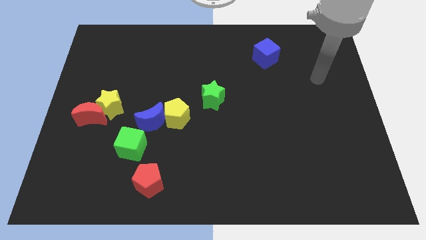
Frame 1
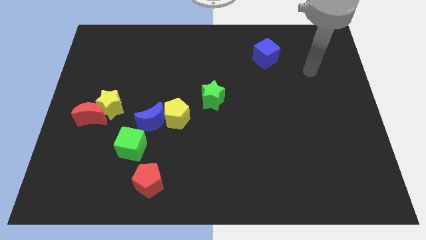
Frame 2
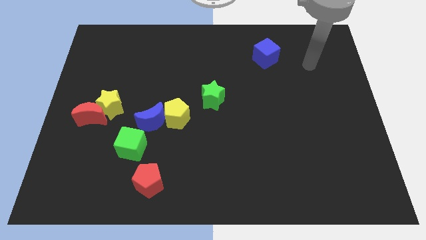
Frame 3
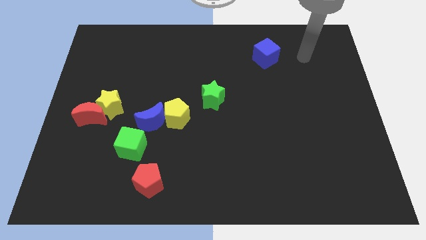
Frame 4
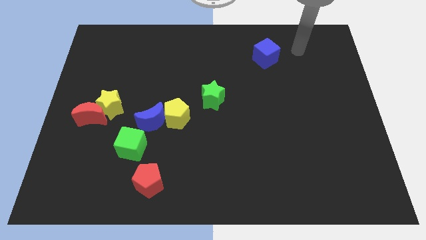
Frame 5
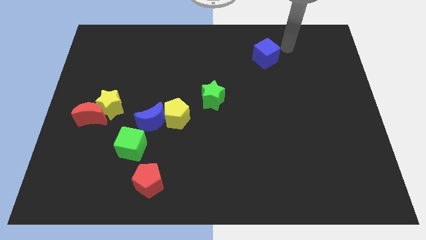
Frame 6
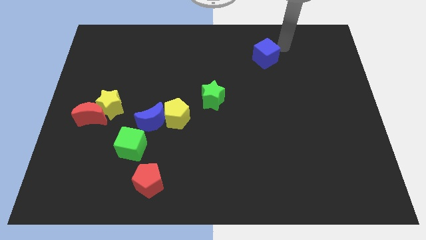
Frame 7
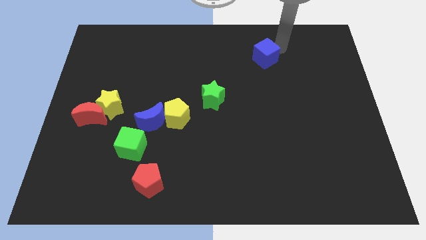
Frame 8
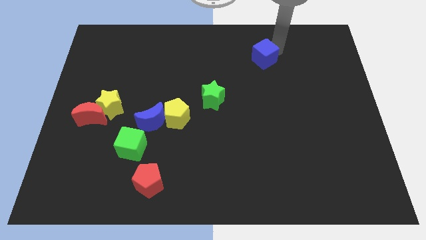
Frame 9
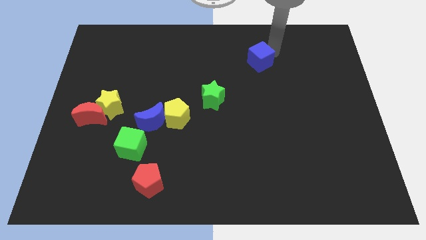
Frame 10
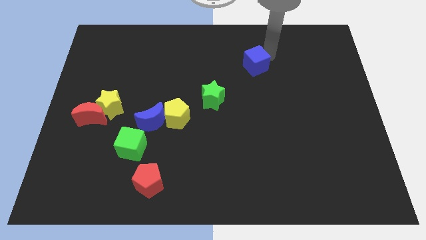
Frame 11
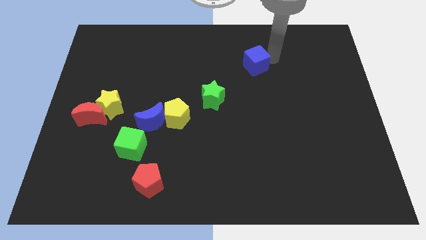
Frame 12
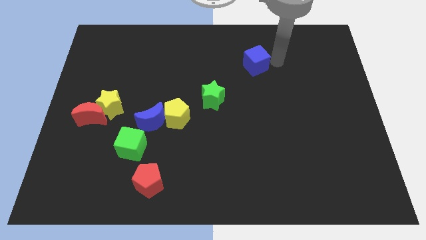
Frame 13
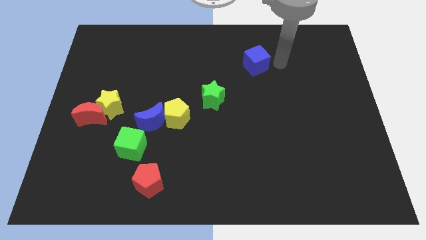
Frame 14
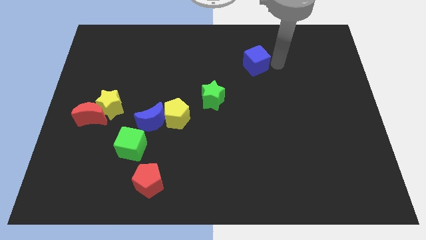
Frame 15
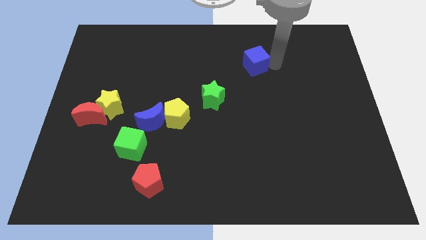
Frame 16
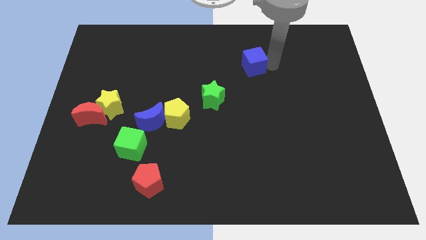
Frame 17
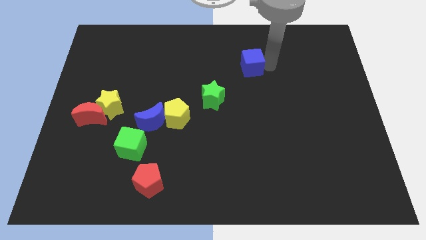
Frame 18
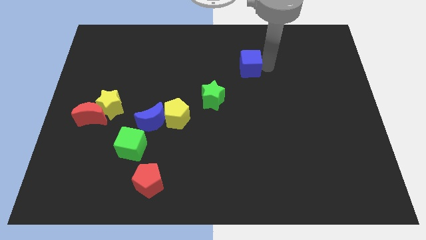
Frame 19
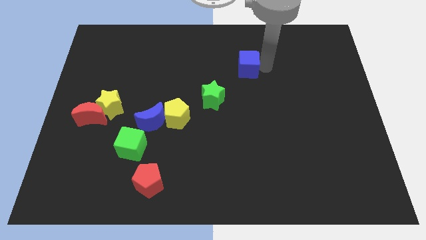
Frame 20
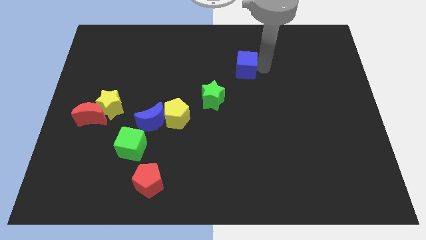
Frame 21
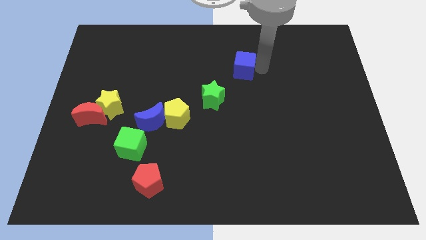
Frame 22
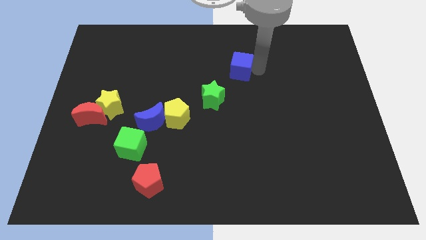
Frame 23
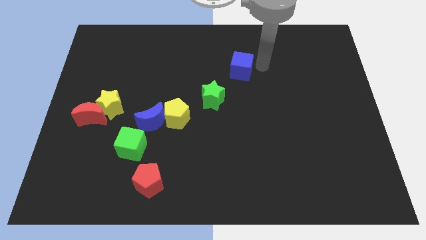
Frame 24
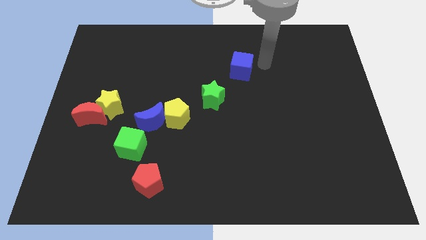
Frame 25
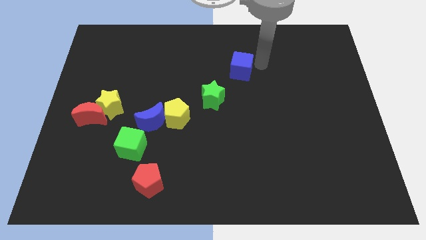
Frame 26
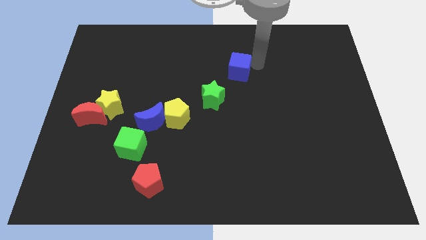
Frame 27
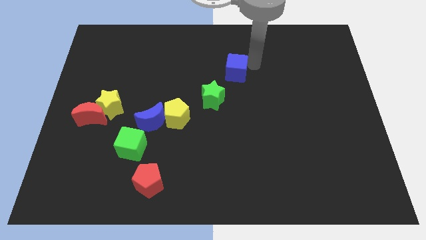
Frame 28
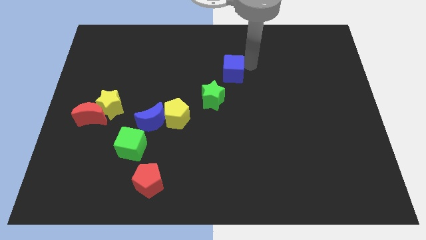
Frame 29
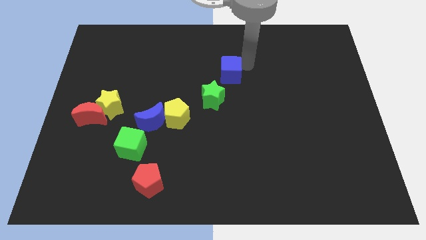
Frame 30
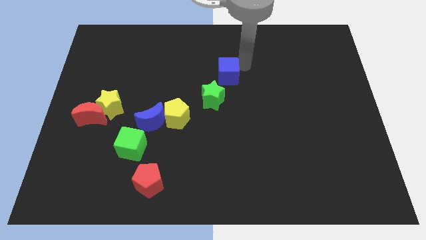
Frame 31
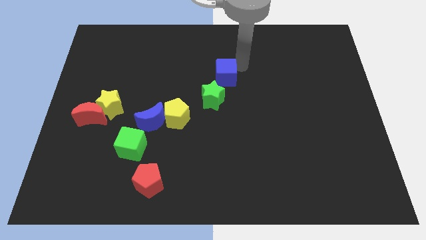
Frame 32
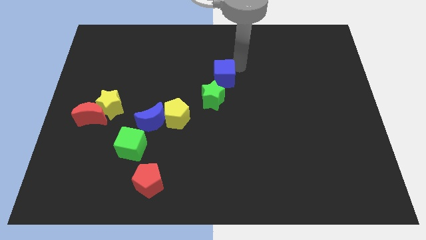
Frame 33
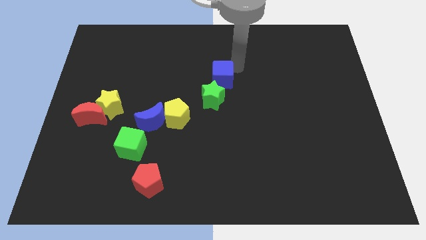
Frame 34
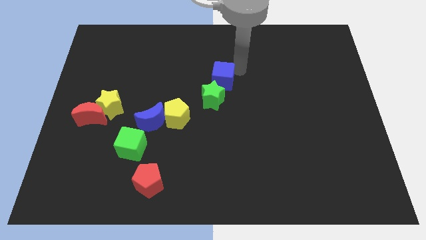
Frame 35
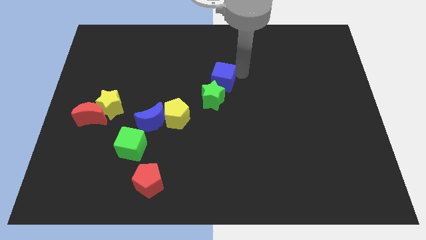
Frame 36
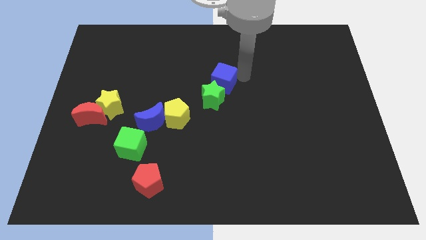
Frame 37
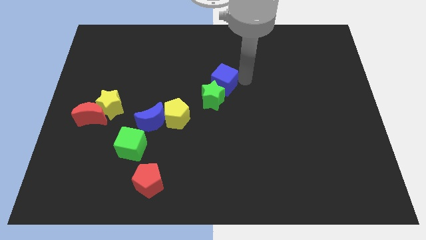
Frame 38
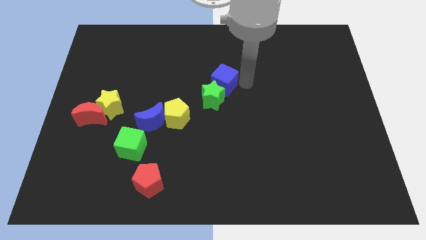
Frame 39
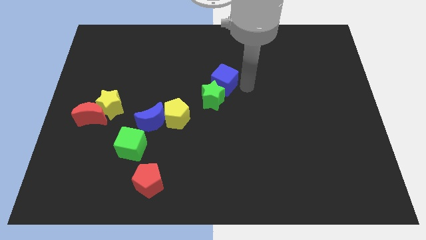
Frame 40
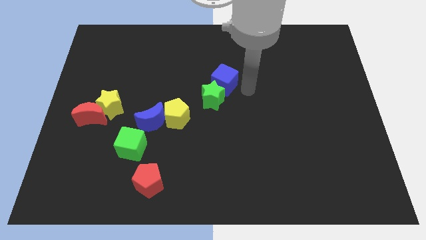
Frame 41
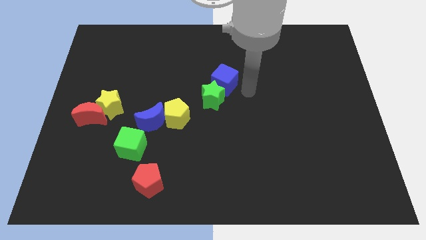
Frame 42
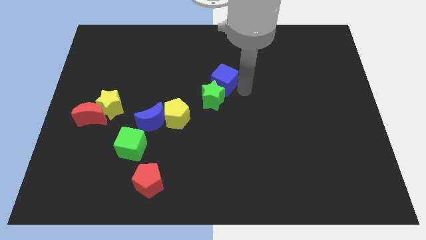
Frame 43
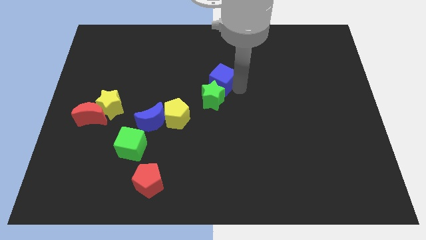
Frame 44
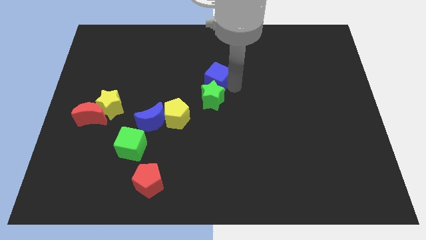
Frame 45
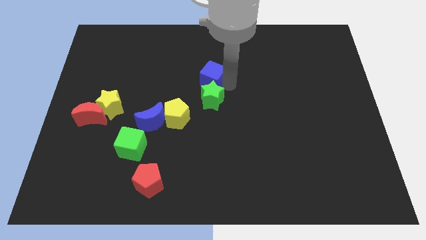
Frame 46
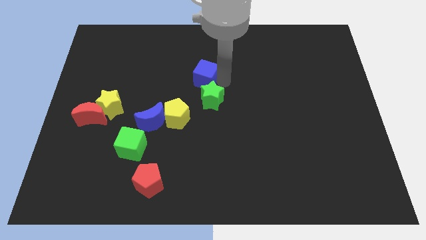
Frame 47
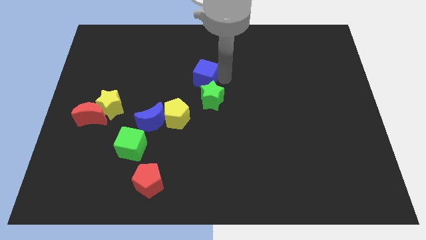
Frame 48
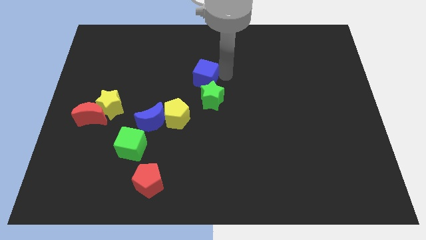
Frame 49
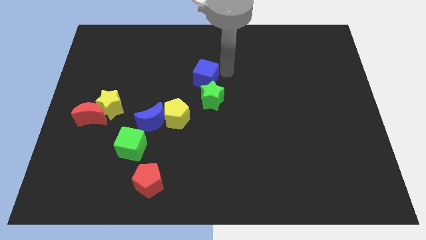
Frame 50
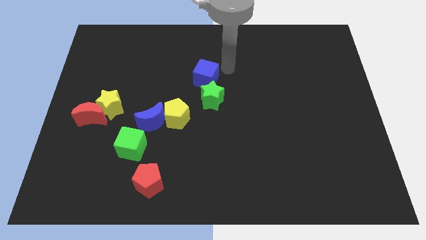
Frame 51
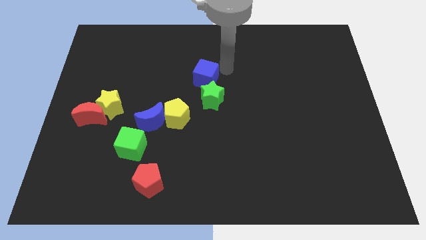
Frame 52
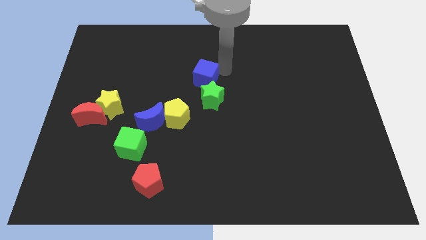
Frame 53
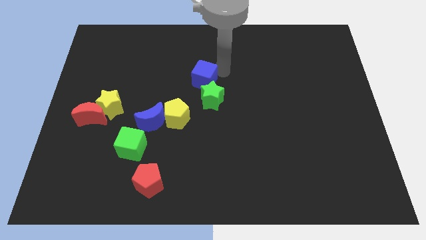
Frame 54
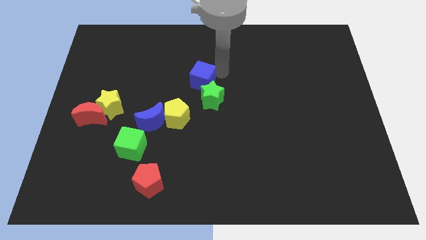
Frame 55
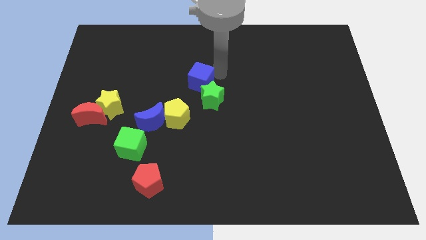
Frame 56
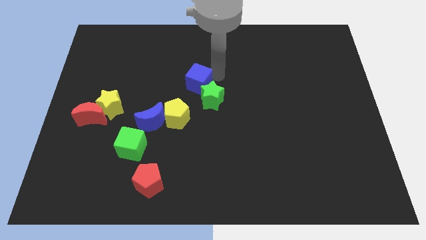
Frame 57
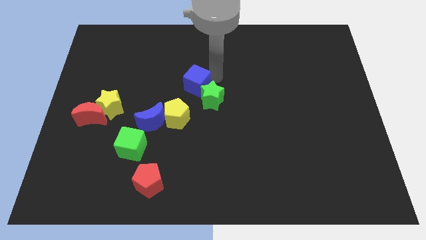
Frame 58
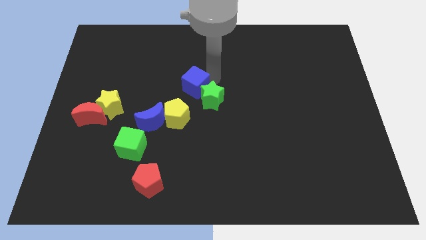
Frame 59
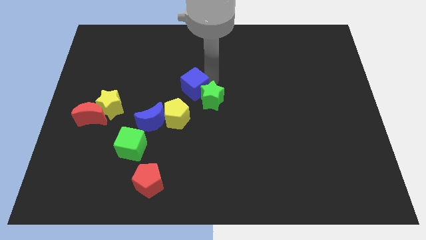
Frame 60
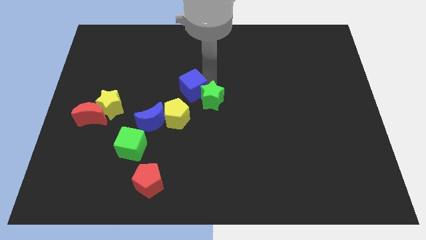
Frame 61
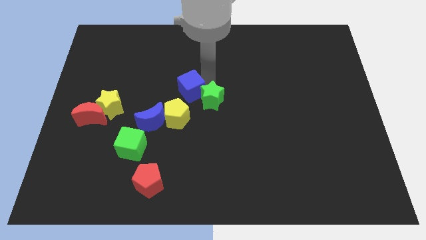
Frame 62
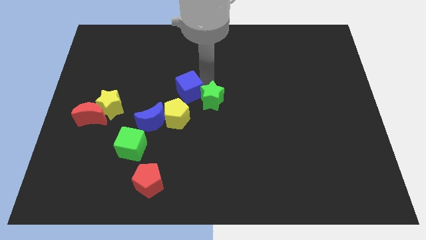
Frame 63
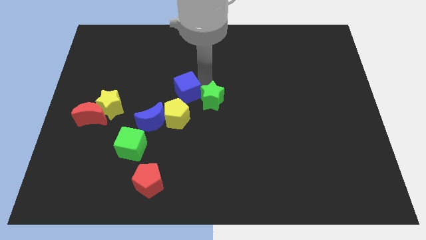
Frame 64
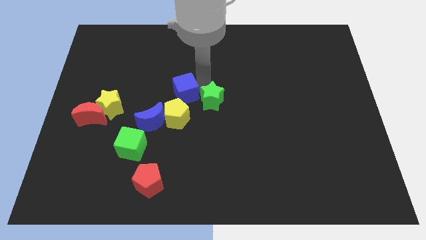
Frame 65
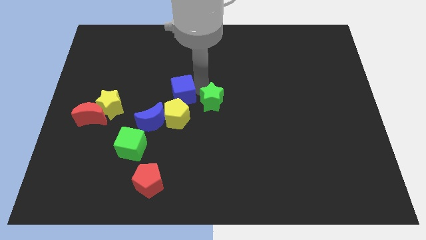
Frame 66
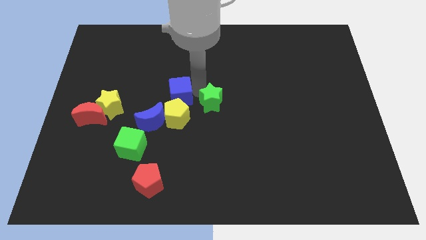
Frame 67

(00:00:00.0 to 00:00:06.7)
move the blue cube to the top left of the yellow pentagon
